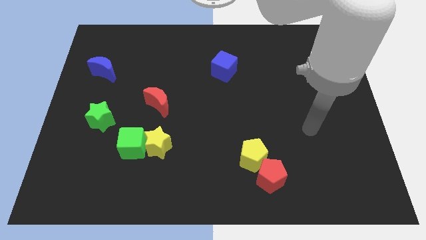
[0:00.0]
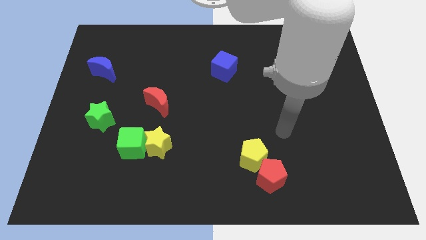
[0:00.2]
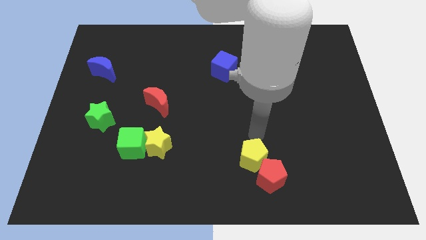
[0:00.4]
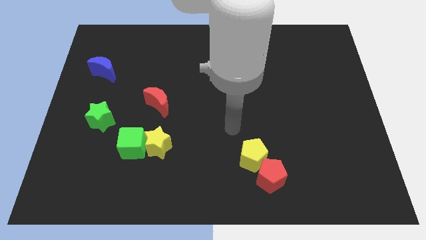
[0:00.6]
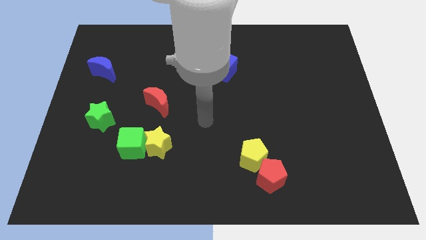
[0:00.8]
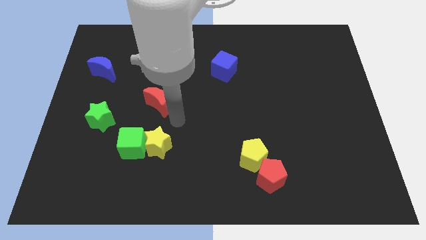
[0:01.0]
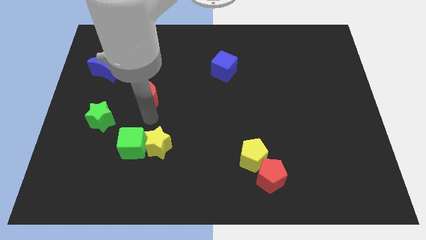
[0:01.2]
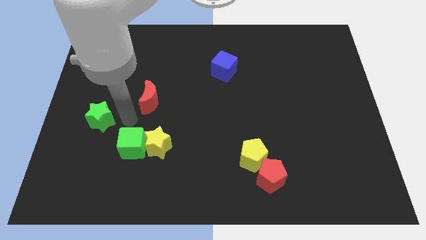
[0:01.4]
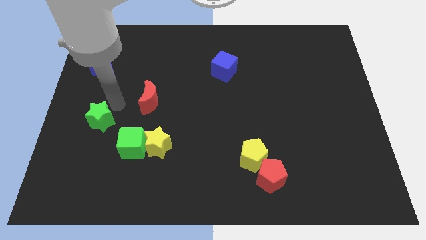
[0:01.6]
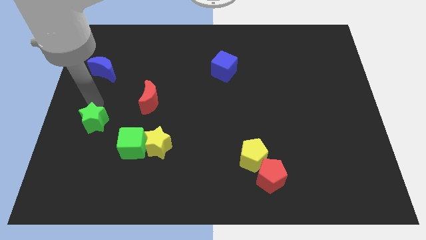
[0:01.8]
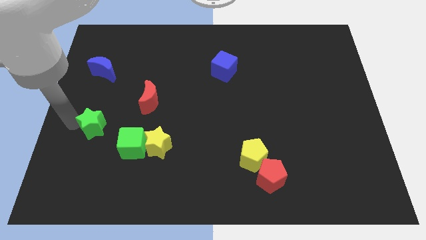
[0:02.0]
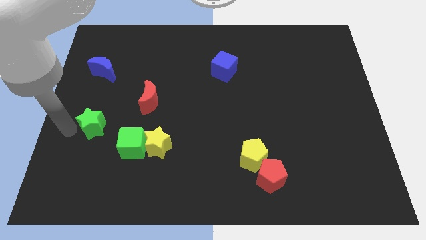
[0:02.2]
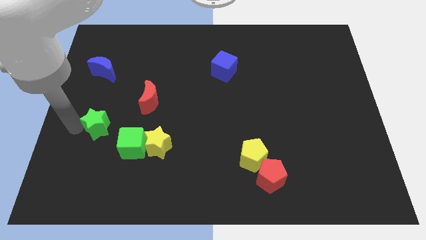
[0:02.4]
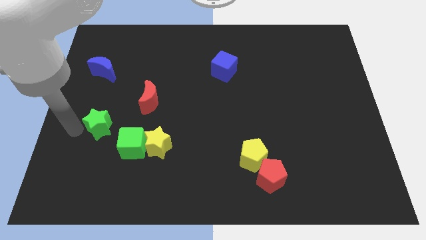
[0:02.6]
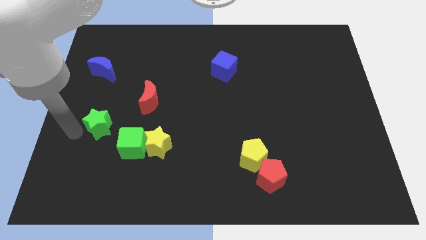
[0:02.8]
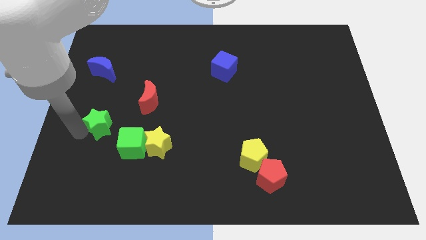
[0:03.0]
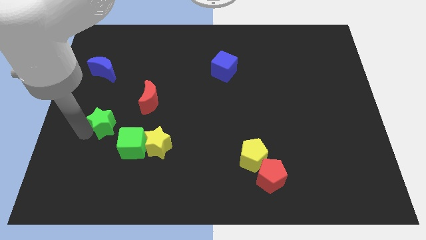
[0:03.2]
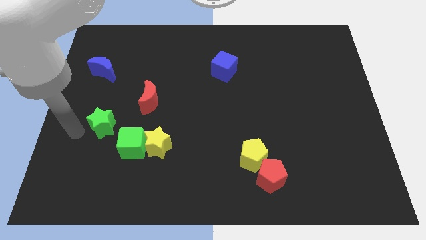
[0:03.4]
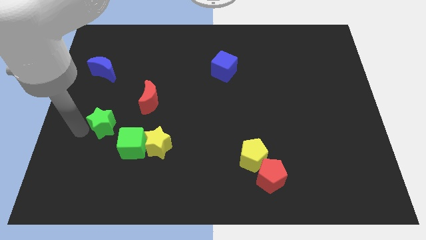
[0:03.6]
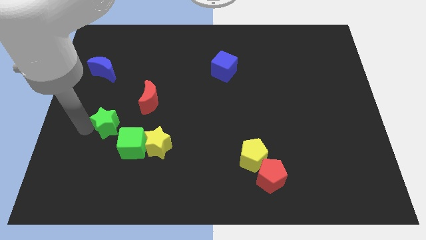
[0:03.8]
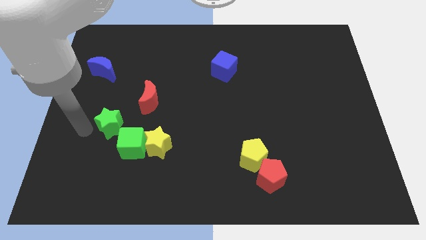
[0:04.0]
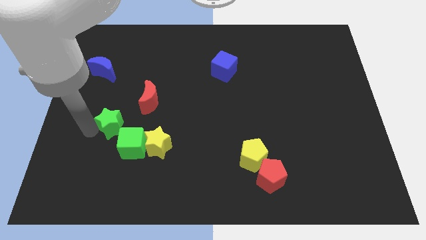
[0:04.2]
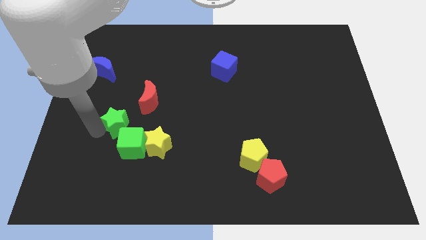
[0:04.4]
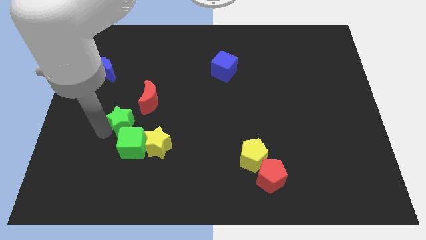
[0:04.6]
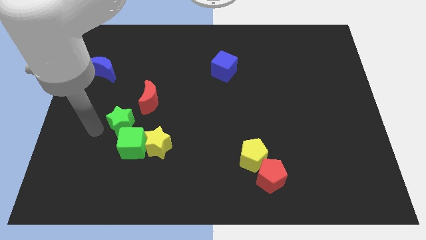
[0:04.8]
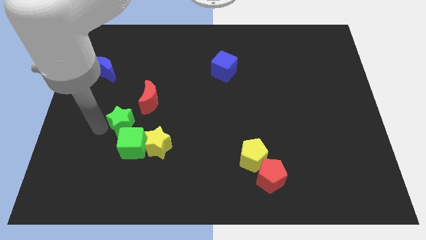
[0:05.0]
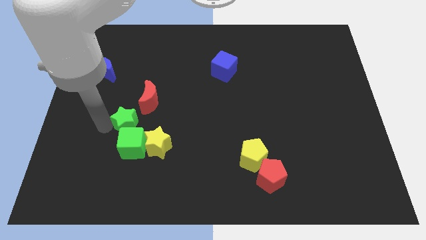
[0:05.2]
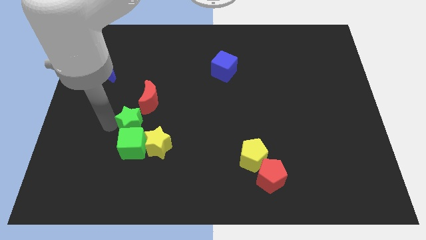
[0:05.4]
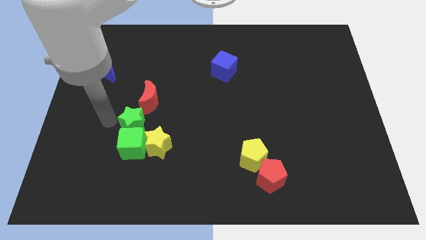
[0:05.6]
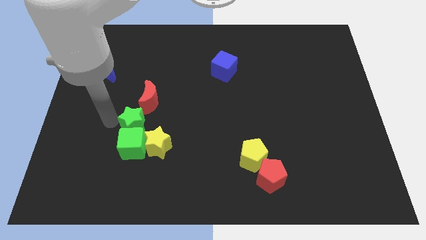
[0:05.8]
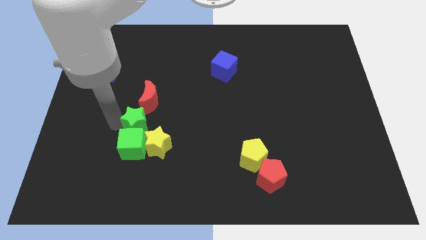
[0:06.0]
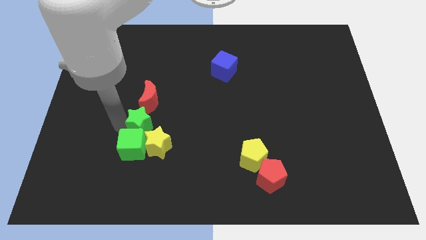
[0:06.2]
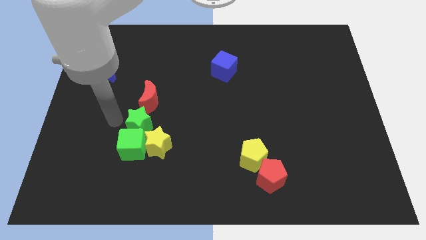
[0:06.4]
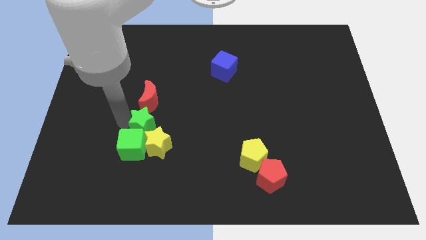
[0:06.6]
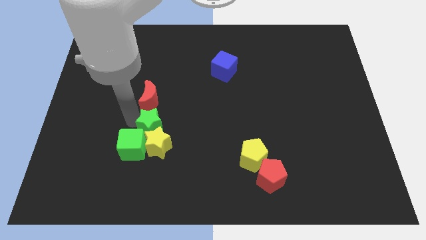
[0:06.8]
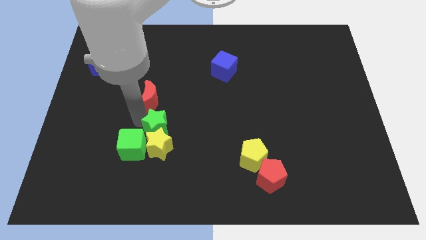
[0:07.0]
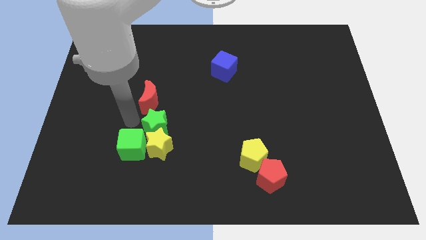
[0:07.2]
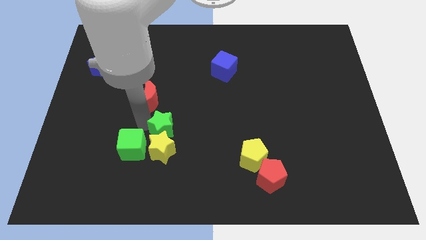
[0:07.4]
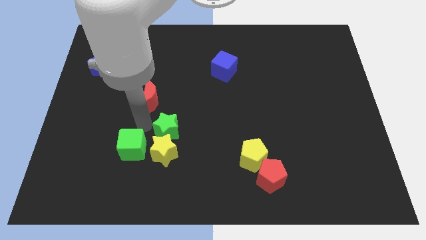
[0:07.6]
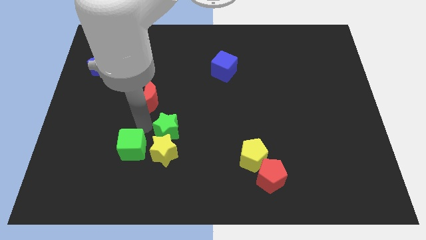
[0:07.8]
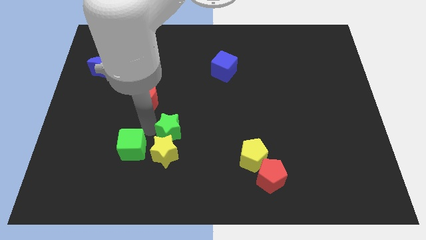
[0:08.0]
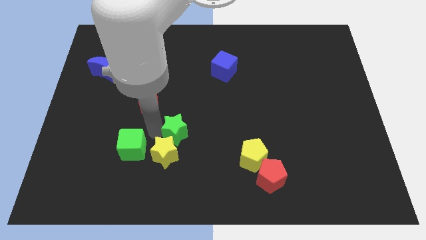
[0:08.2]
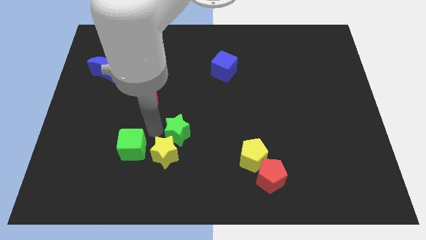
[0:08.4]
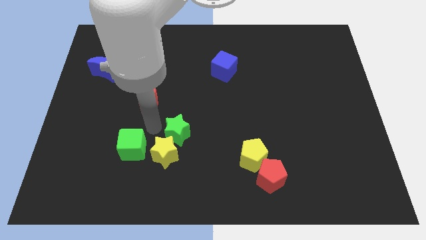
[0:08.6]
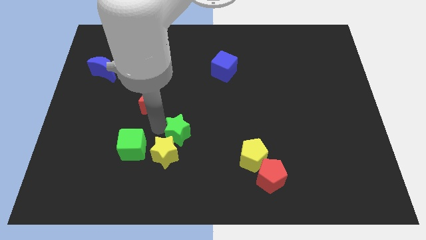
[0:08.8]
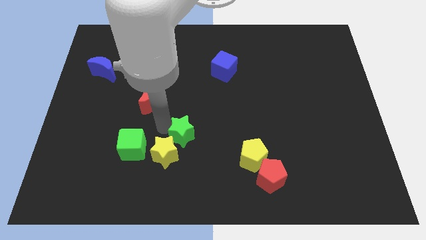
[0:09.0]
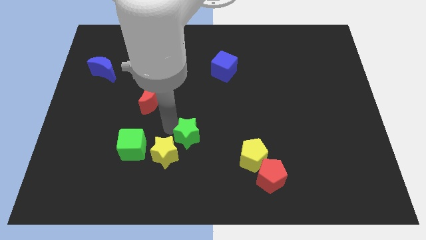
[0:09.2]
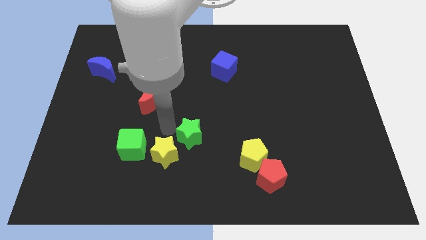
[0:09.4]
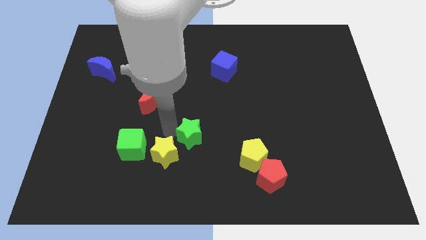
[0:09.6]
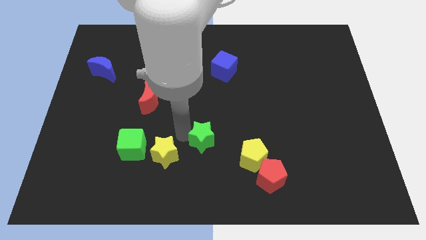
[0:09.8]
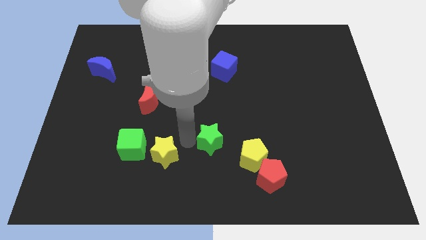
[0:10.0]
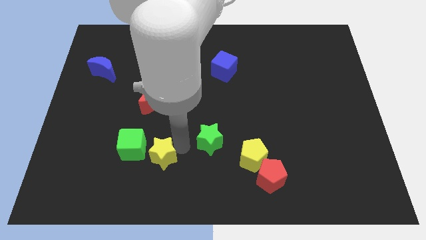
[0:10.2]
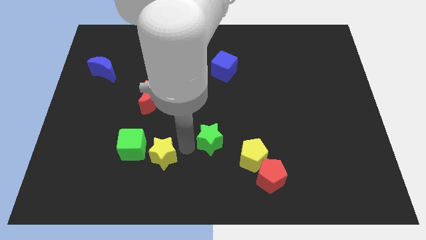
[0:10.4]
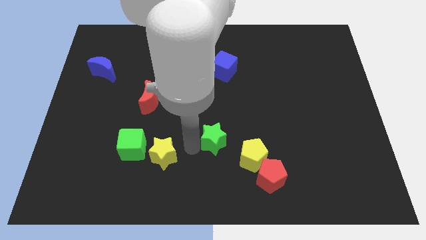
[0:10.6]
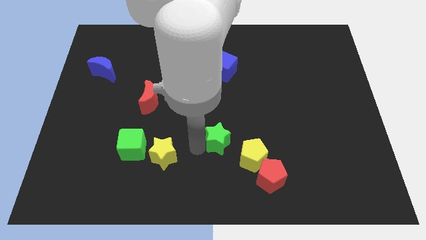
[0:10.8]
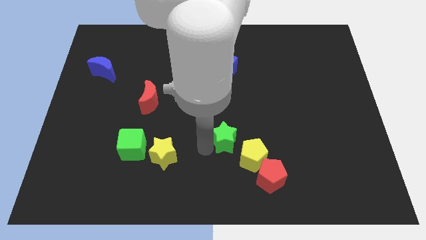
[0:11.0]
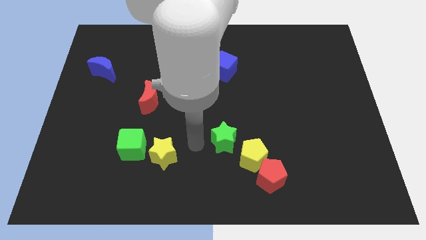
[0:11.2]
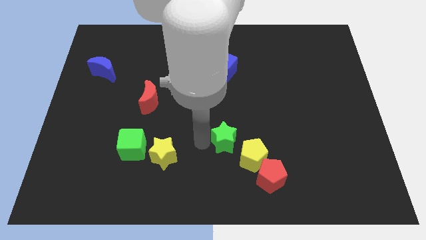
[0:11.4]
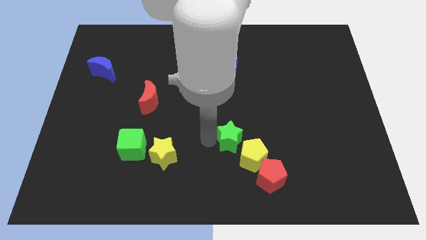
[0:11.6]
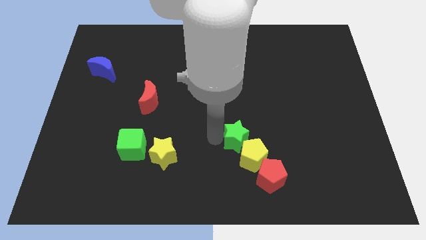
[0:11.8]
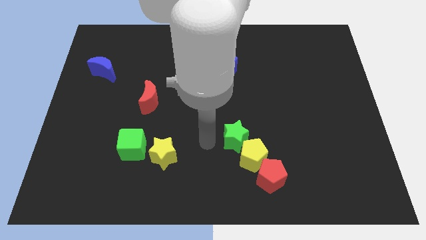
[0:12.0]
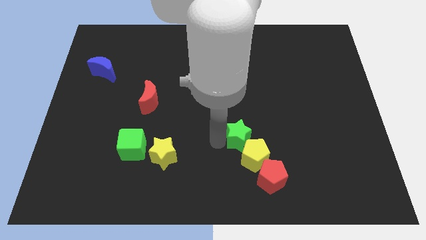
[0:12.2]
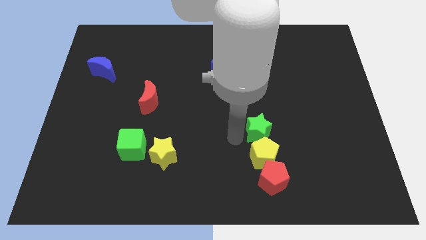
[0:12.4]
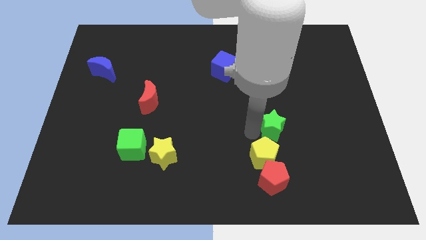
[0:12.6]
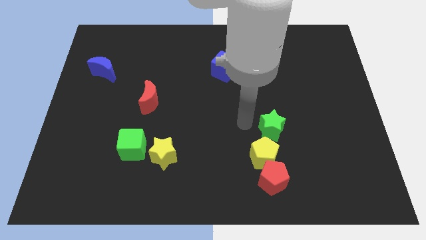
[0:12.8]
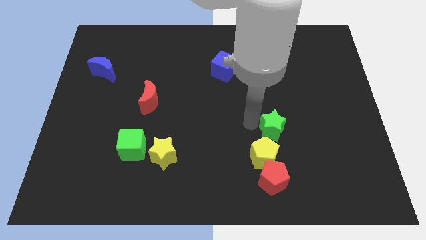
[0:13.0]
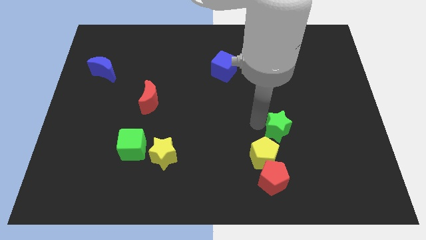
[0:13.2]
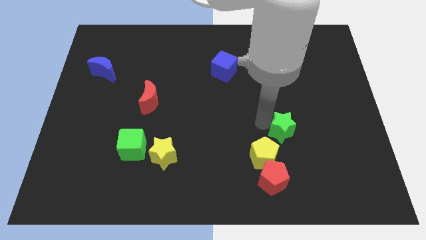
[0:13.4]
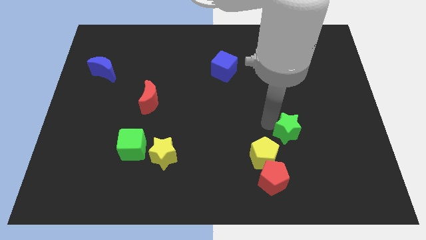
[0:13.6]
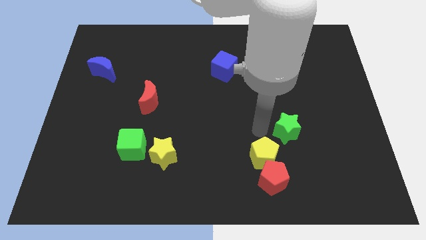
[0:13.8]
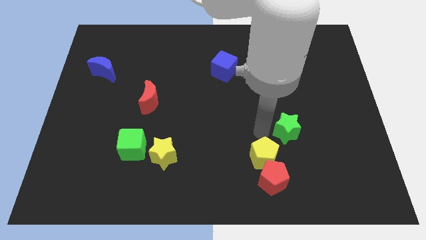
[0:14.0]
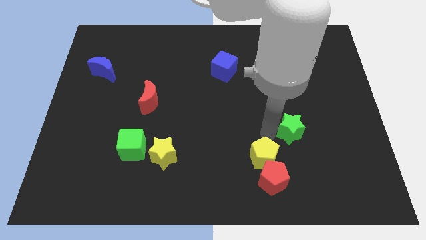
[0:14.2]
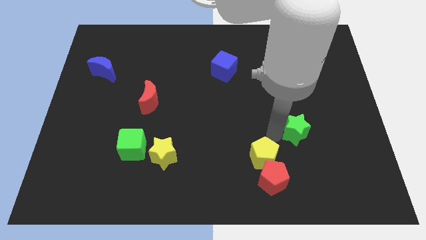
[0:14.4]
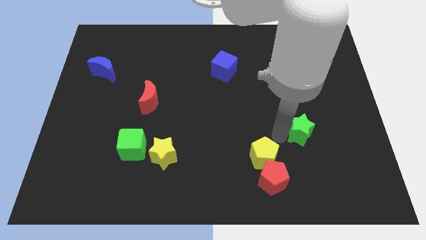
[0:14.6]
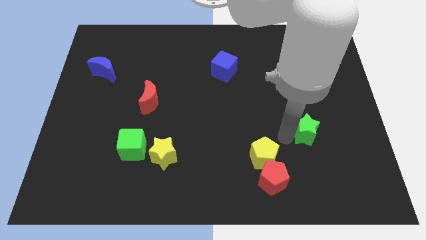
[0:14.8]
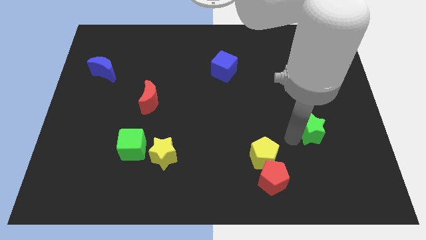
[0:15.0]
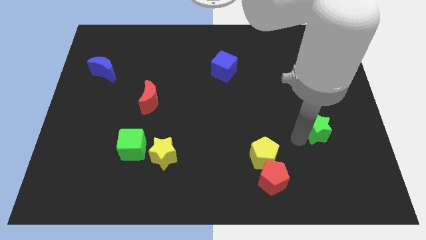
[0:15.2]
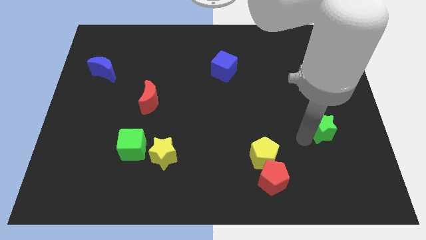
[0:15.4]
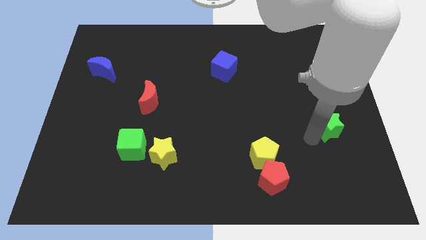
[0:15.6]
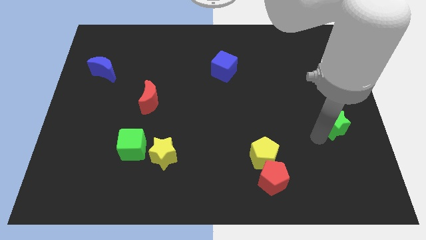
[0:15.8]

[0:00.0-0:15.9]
push the green star to the right side of the board
